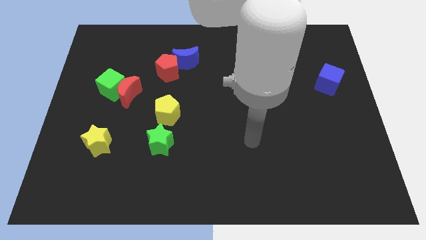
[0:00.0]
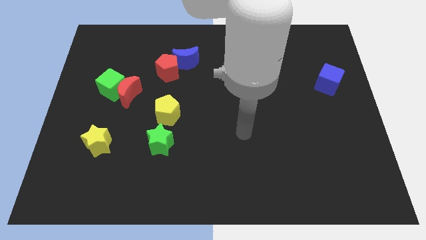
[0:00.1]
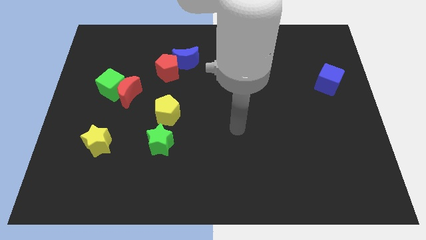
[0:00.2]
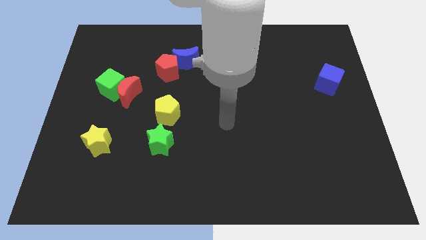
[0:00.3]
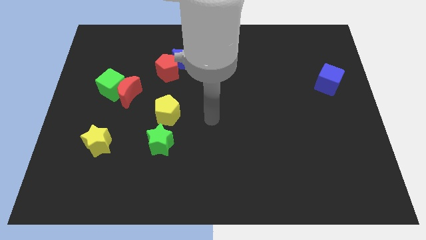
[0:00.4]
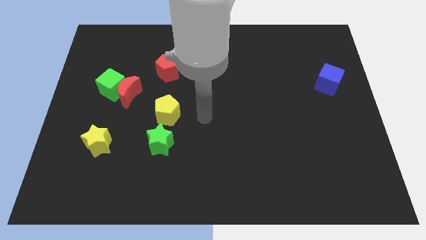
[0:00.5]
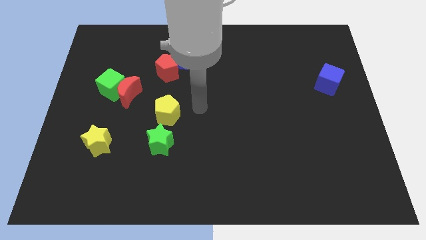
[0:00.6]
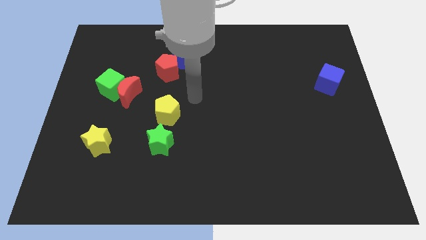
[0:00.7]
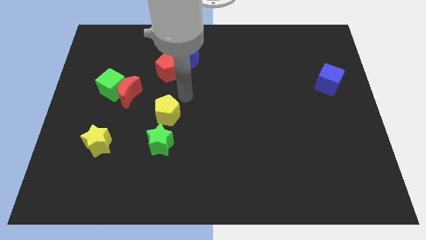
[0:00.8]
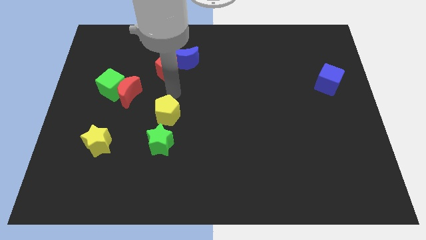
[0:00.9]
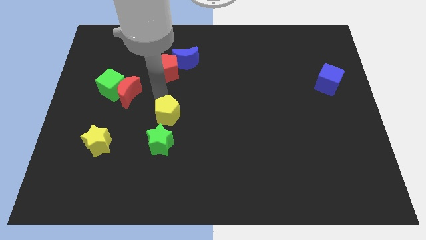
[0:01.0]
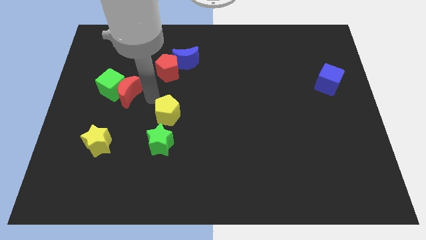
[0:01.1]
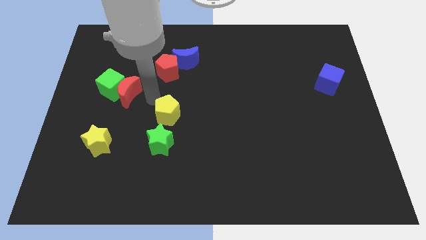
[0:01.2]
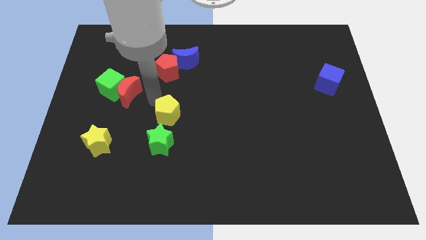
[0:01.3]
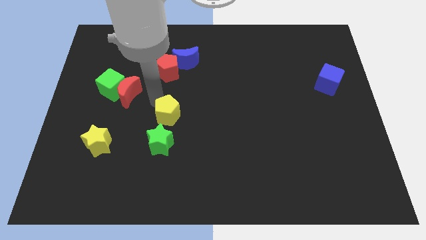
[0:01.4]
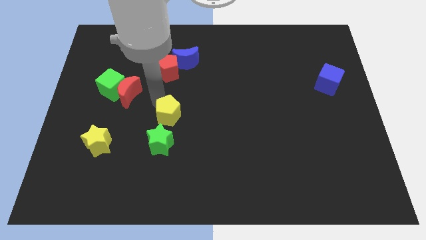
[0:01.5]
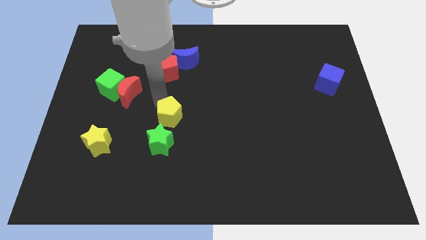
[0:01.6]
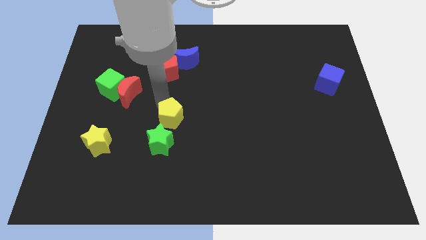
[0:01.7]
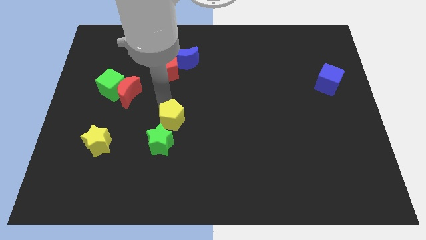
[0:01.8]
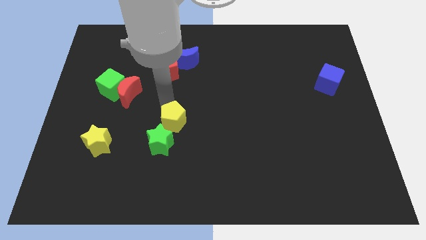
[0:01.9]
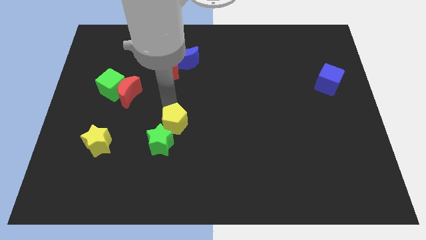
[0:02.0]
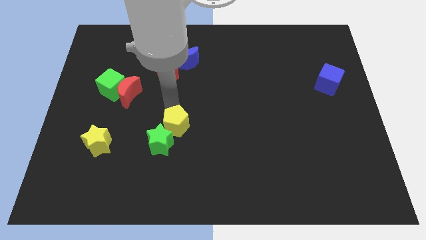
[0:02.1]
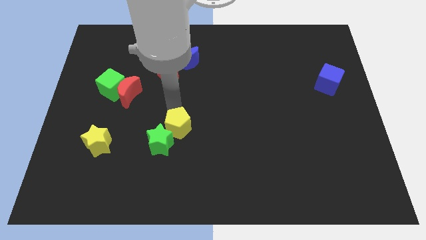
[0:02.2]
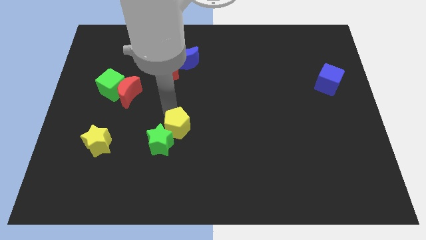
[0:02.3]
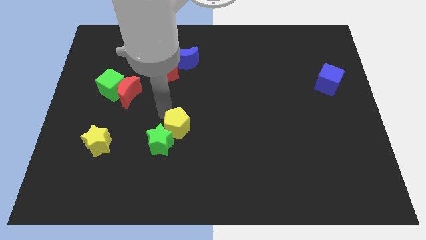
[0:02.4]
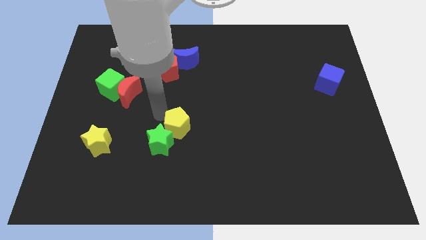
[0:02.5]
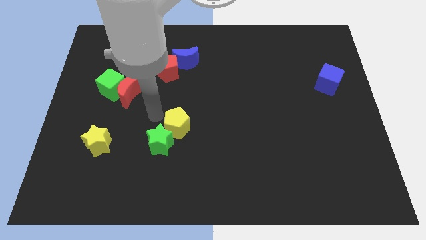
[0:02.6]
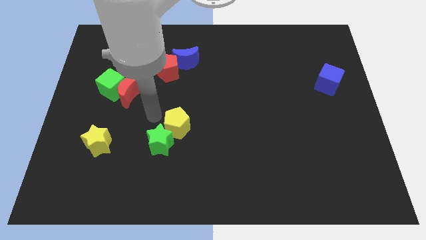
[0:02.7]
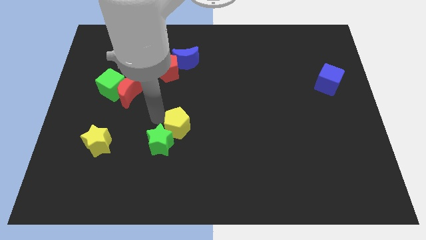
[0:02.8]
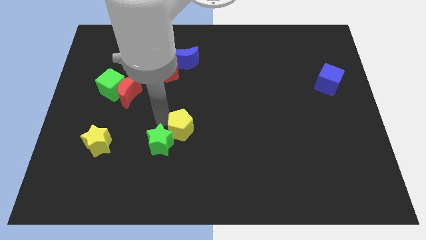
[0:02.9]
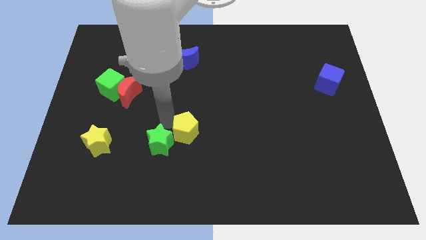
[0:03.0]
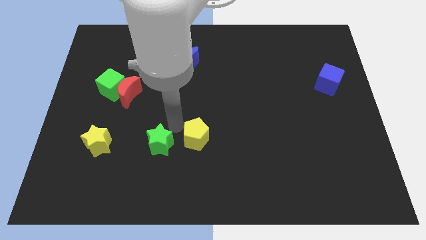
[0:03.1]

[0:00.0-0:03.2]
slide the yellow pentagon slightly down and right diagonally

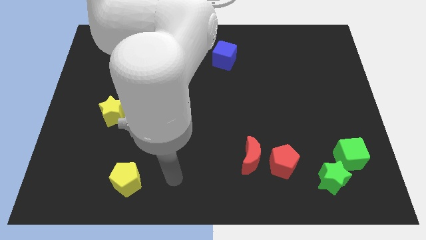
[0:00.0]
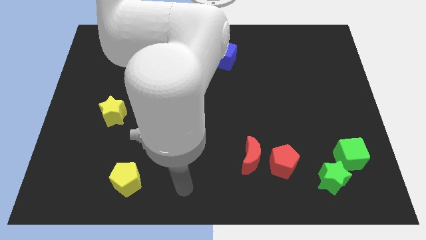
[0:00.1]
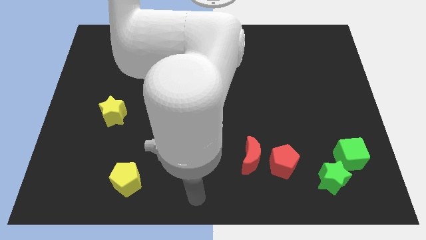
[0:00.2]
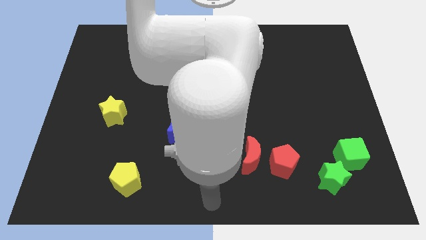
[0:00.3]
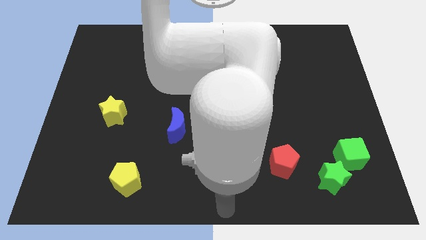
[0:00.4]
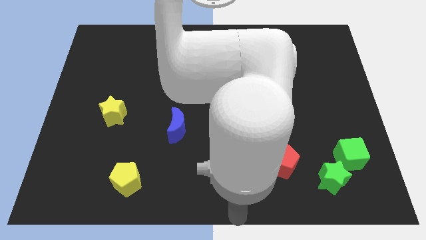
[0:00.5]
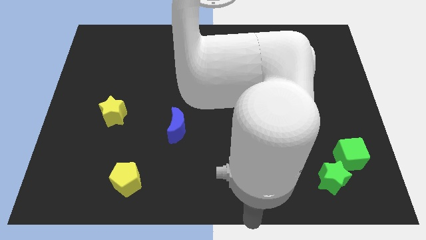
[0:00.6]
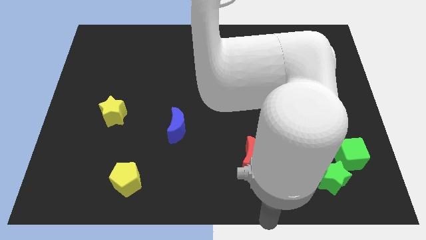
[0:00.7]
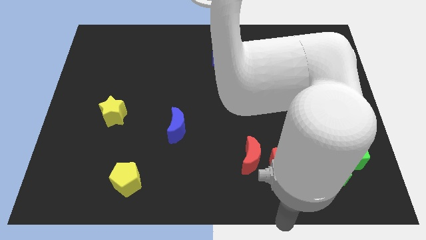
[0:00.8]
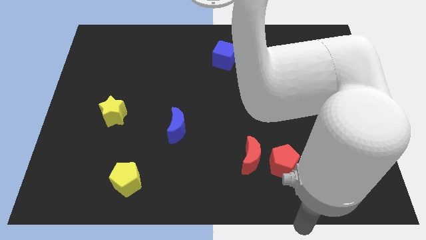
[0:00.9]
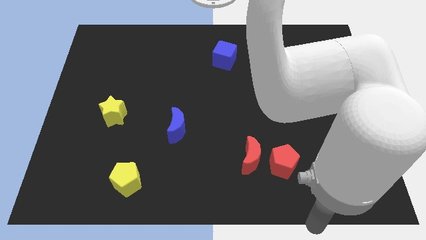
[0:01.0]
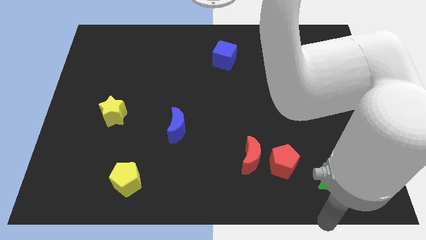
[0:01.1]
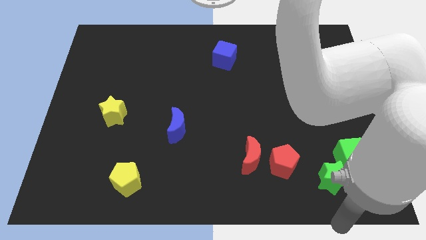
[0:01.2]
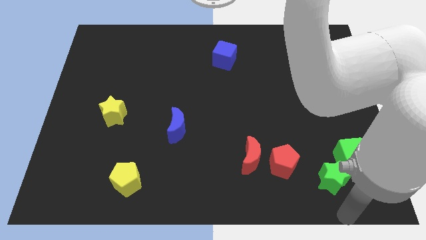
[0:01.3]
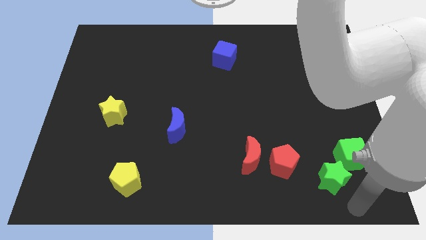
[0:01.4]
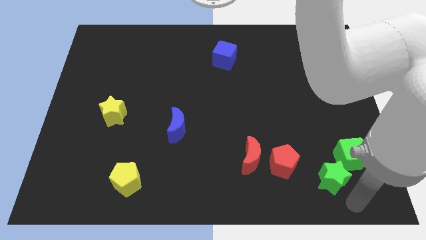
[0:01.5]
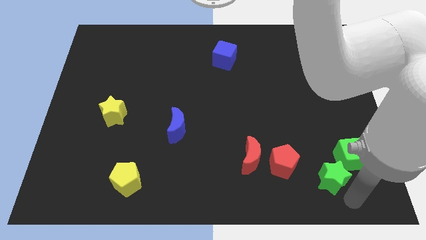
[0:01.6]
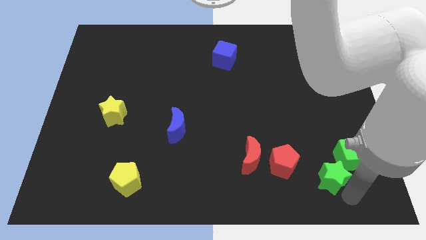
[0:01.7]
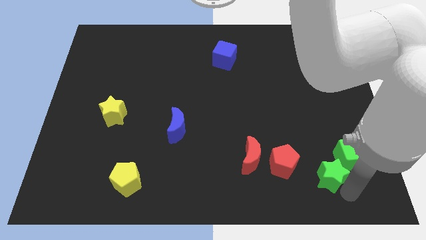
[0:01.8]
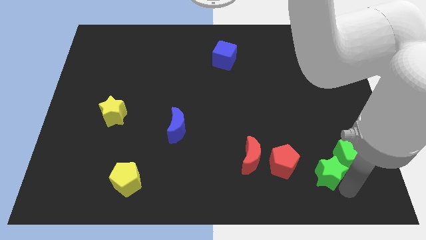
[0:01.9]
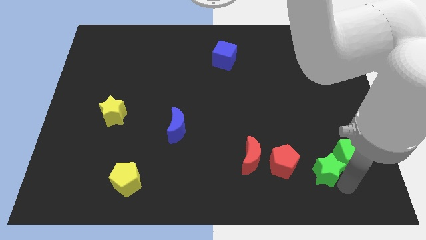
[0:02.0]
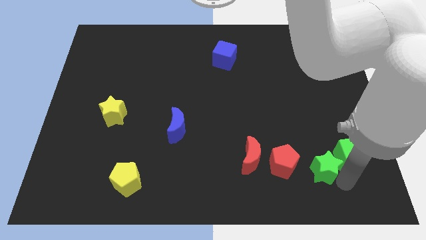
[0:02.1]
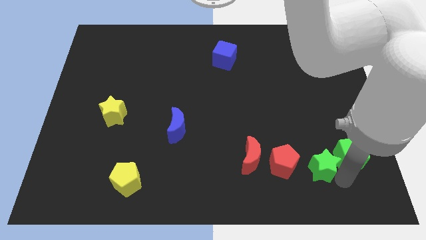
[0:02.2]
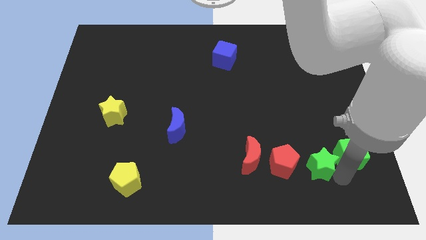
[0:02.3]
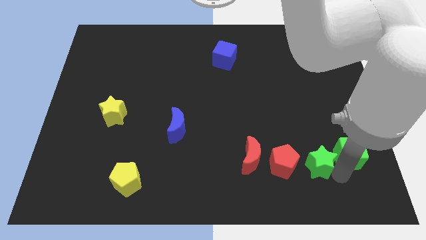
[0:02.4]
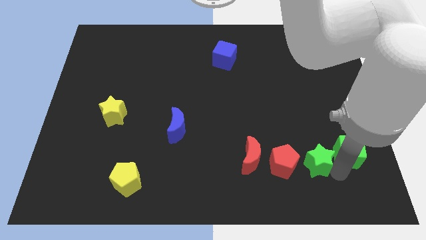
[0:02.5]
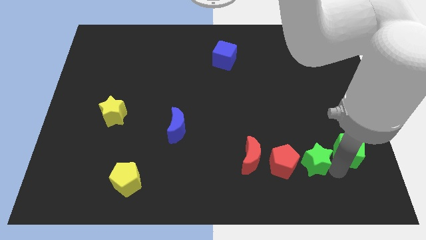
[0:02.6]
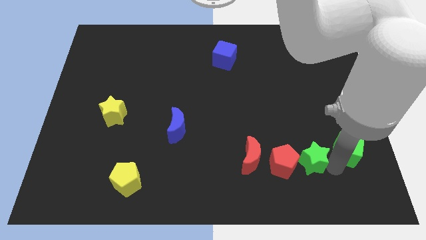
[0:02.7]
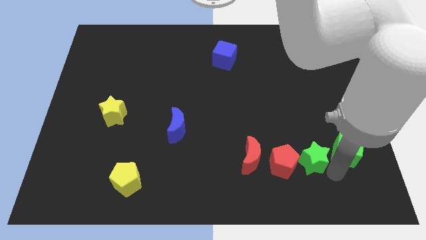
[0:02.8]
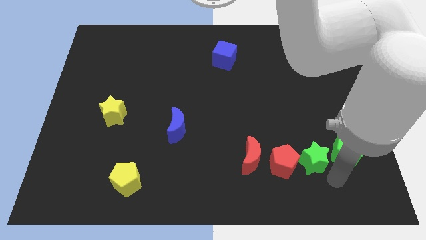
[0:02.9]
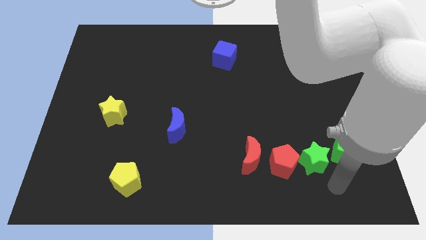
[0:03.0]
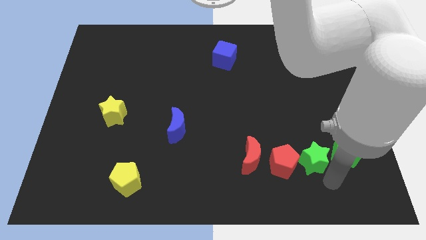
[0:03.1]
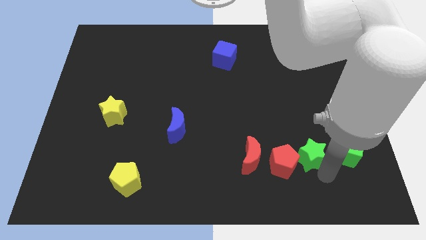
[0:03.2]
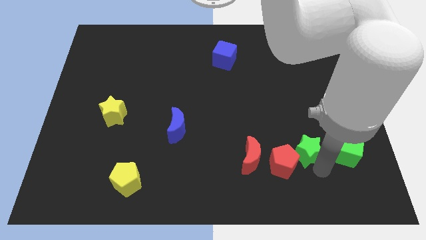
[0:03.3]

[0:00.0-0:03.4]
move the green star somewhat up and left diagonally

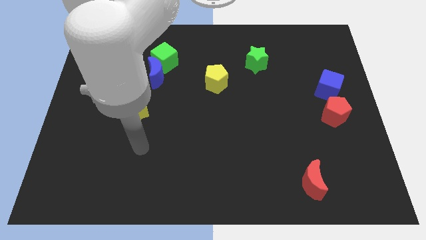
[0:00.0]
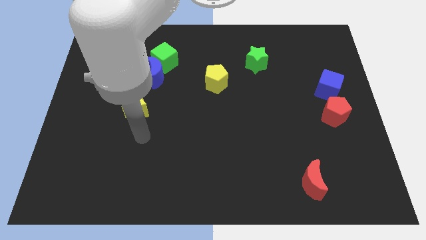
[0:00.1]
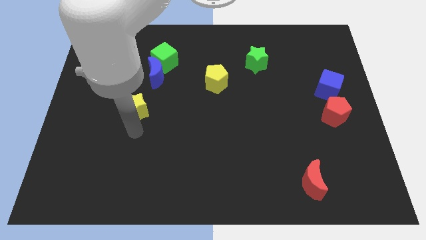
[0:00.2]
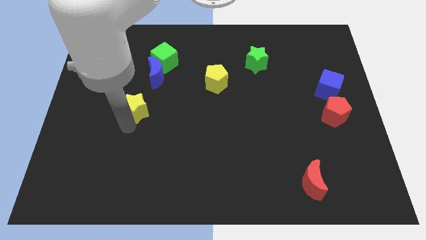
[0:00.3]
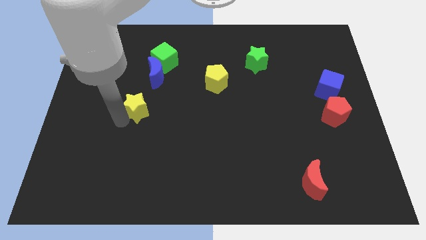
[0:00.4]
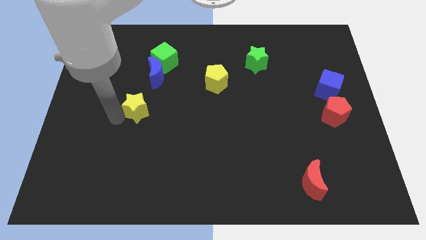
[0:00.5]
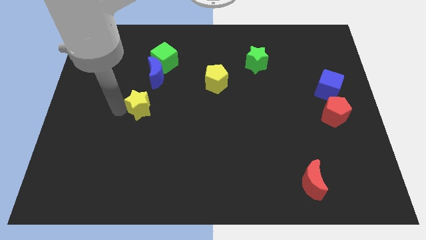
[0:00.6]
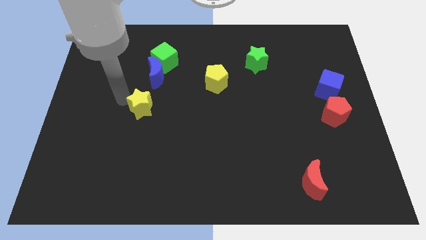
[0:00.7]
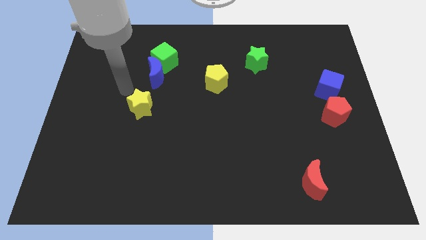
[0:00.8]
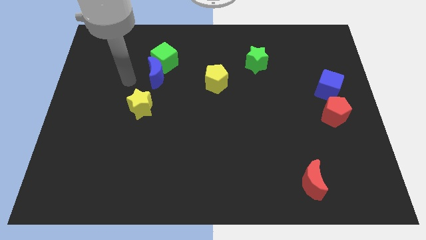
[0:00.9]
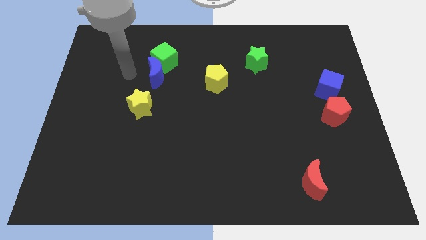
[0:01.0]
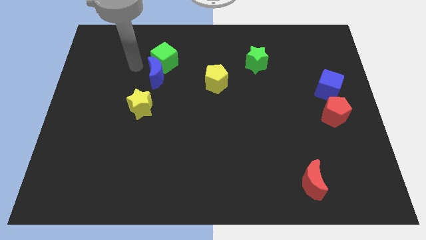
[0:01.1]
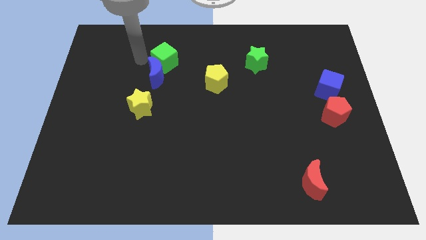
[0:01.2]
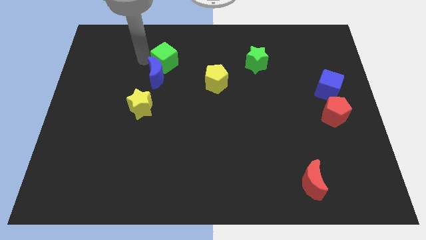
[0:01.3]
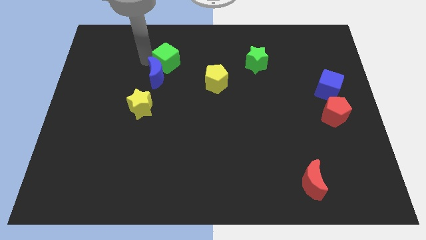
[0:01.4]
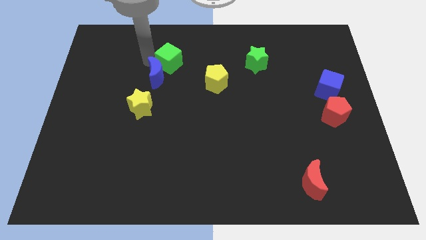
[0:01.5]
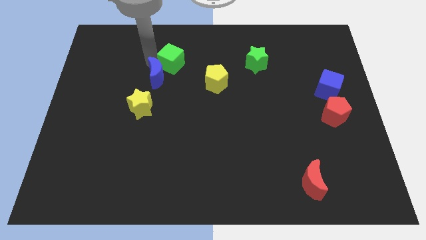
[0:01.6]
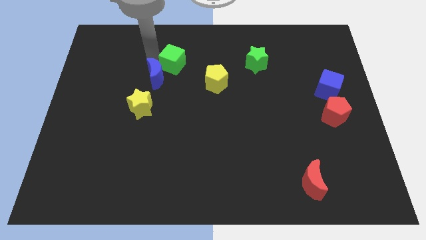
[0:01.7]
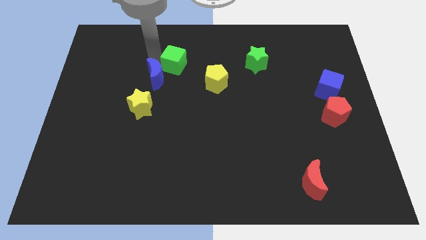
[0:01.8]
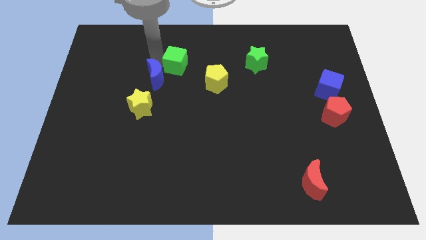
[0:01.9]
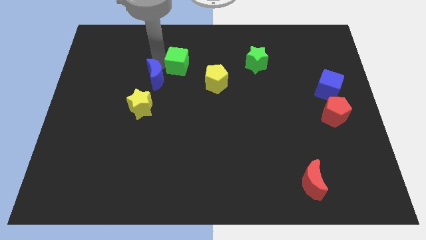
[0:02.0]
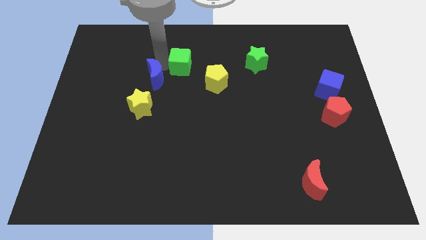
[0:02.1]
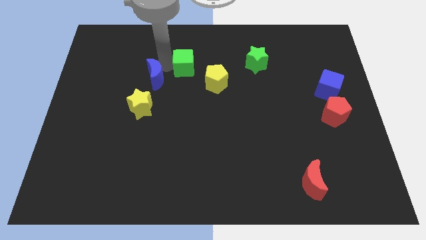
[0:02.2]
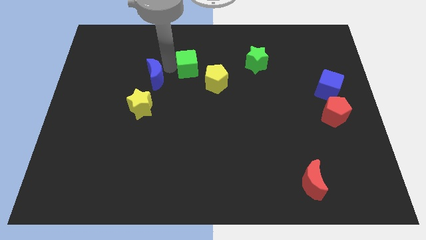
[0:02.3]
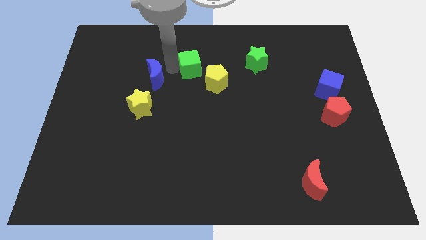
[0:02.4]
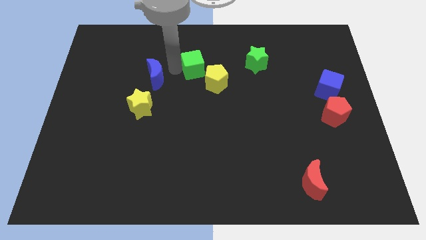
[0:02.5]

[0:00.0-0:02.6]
slightly slide the green cube right
